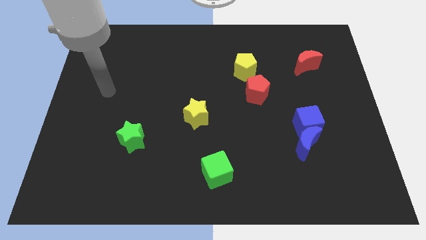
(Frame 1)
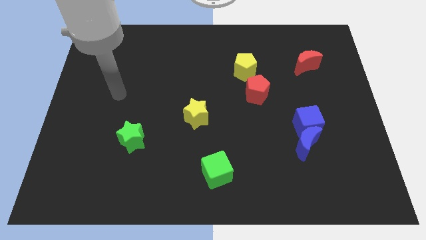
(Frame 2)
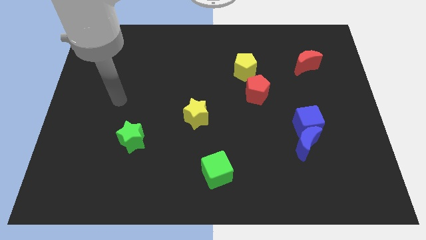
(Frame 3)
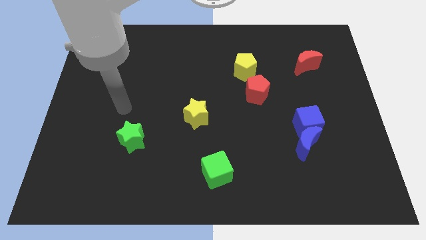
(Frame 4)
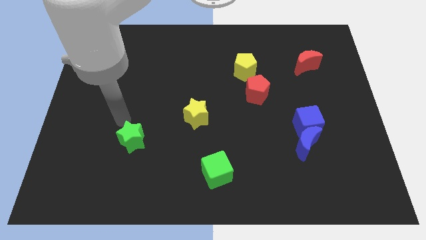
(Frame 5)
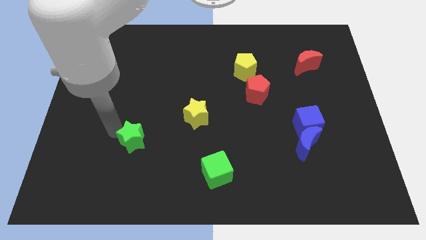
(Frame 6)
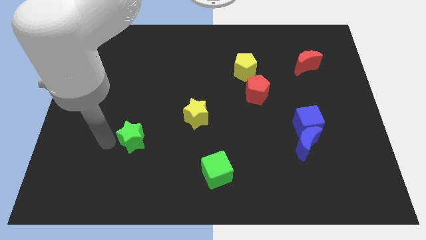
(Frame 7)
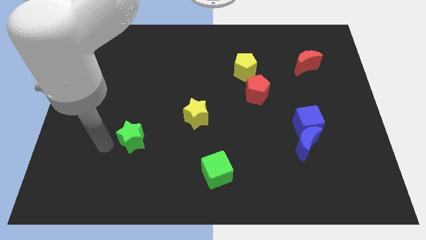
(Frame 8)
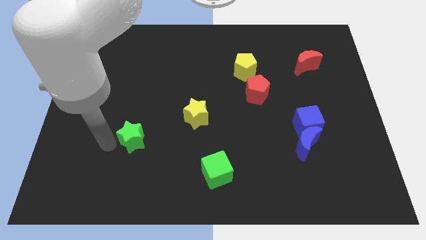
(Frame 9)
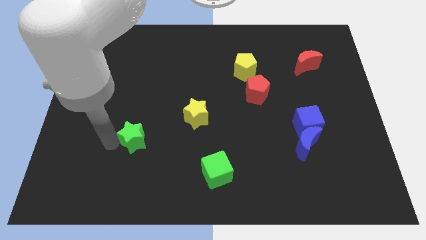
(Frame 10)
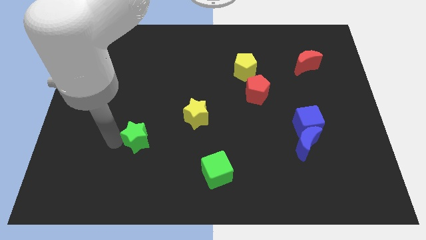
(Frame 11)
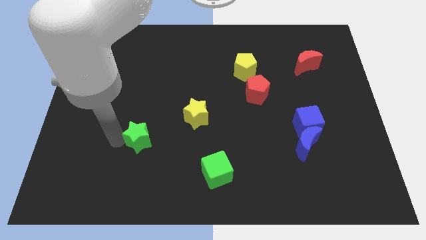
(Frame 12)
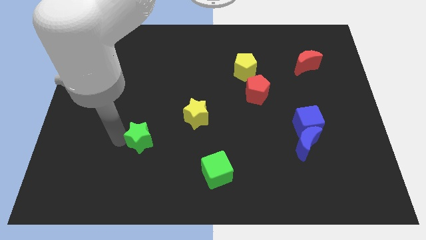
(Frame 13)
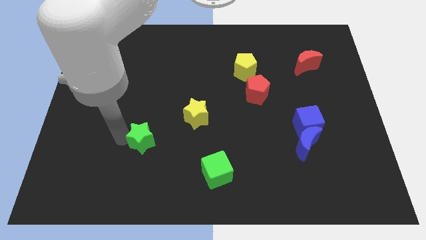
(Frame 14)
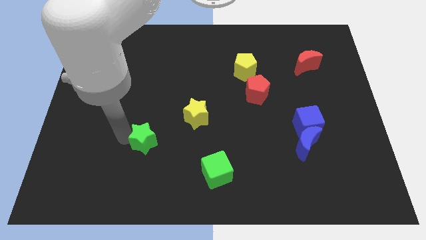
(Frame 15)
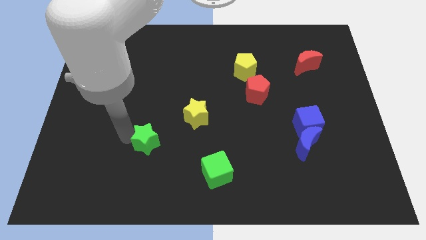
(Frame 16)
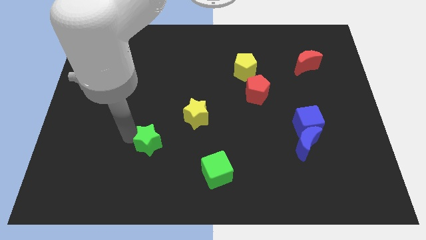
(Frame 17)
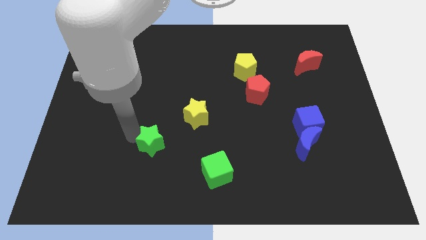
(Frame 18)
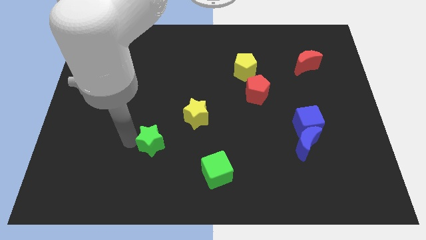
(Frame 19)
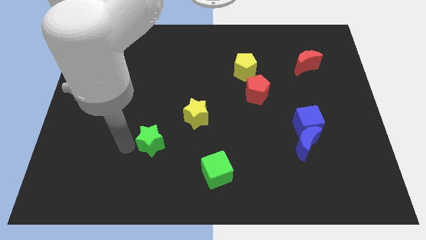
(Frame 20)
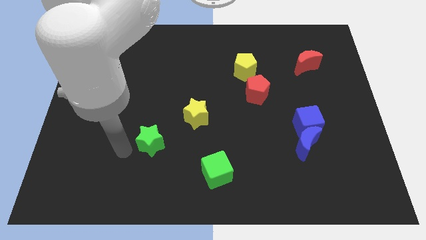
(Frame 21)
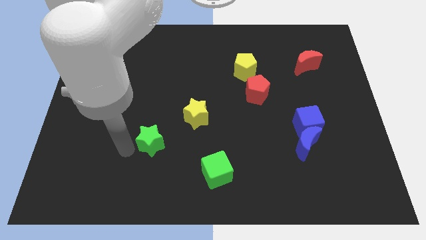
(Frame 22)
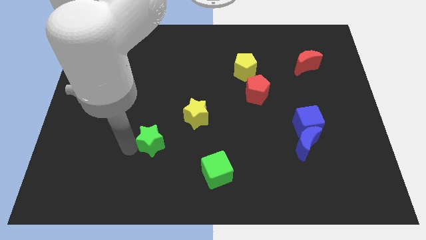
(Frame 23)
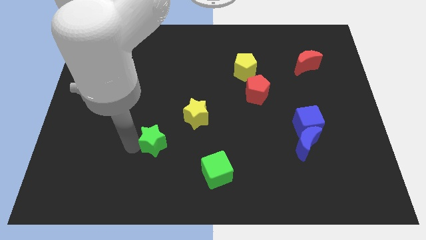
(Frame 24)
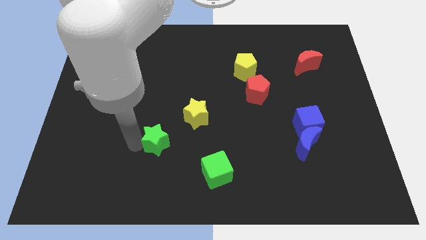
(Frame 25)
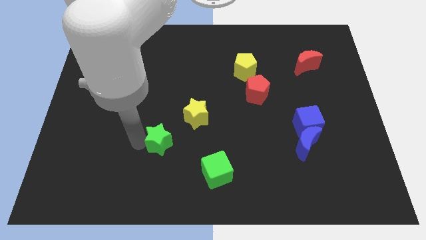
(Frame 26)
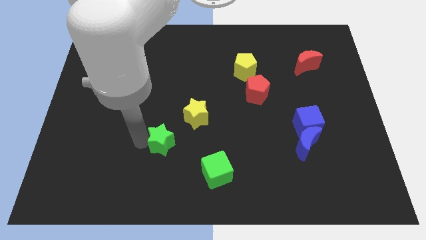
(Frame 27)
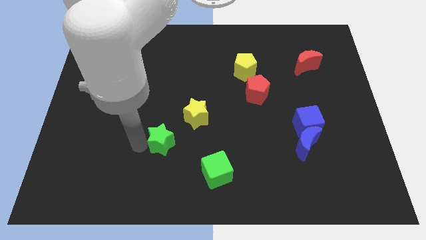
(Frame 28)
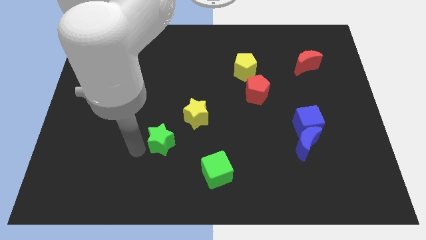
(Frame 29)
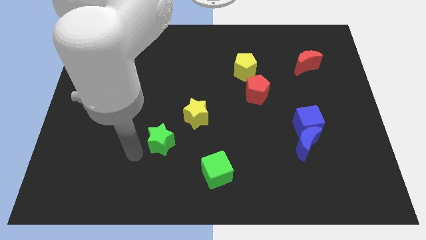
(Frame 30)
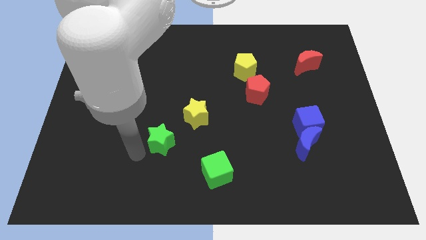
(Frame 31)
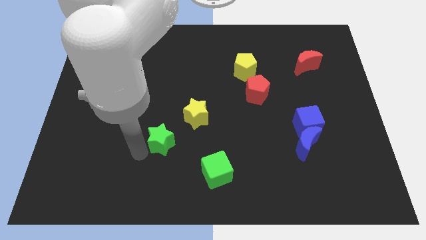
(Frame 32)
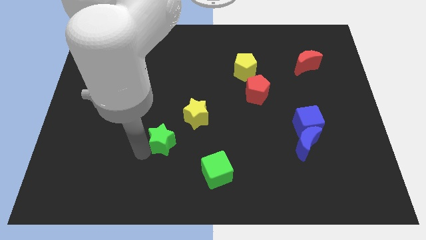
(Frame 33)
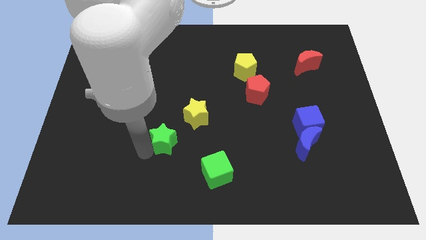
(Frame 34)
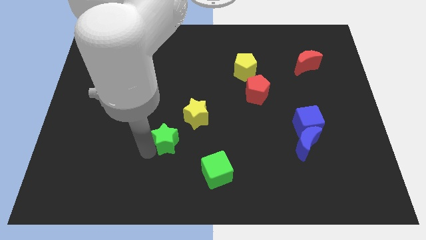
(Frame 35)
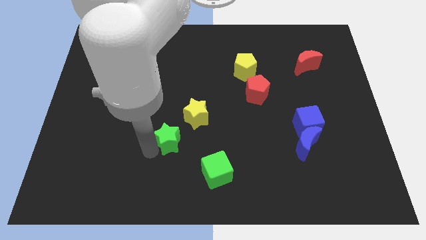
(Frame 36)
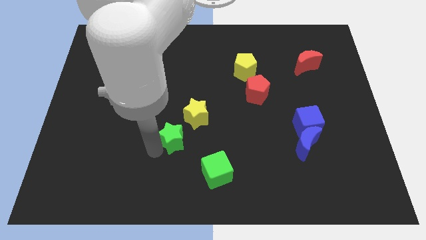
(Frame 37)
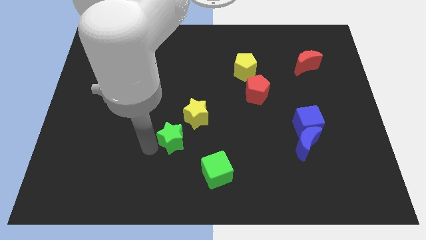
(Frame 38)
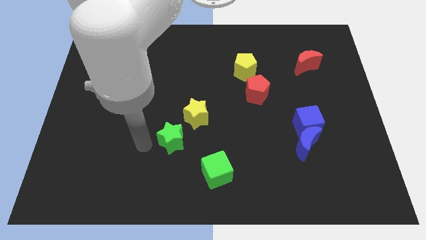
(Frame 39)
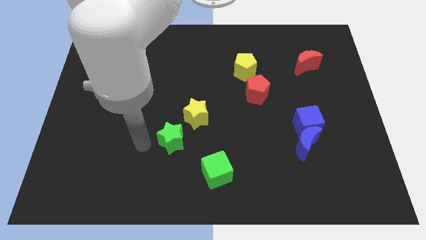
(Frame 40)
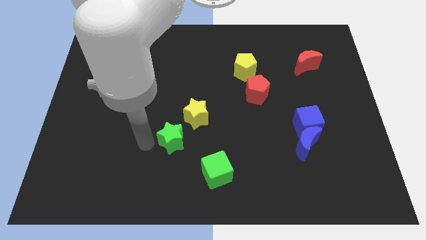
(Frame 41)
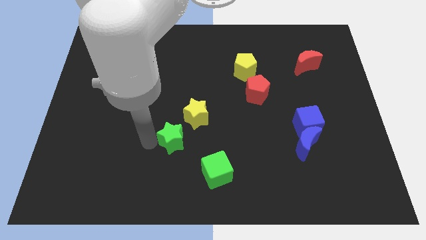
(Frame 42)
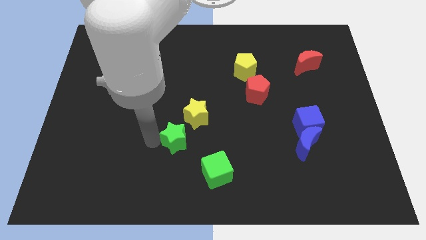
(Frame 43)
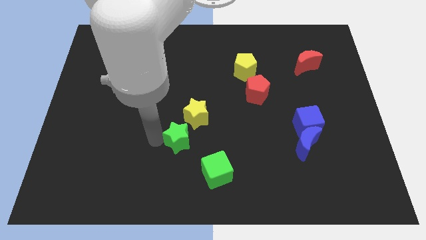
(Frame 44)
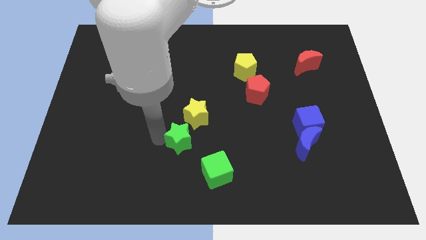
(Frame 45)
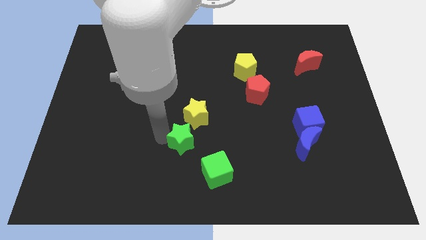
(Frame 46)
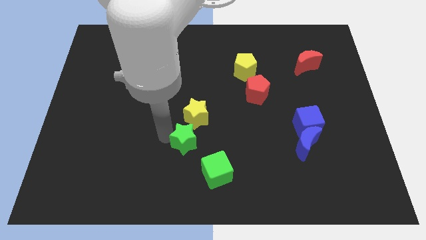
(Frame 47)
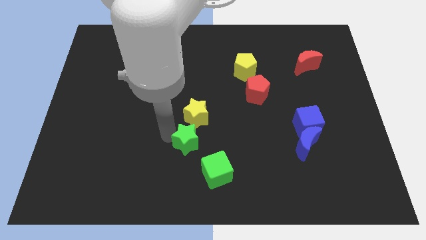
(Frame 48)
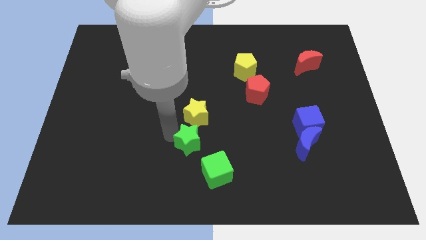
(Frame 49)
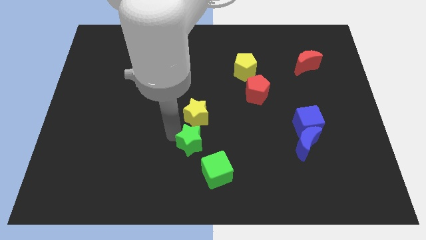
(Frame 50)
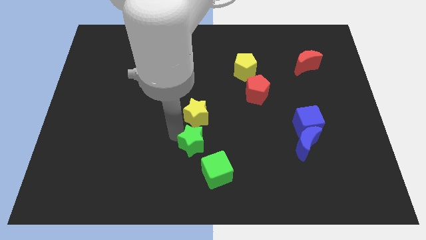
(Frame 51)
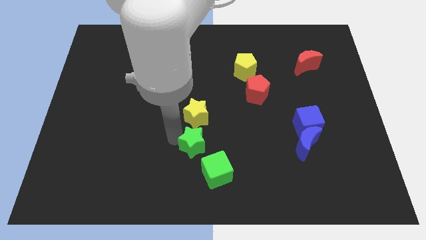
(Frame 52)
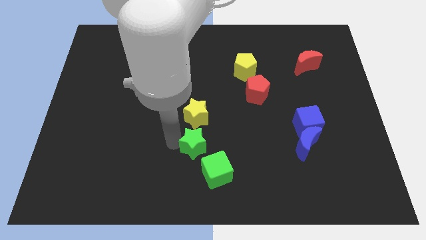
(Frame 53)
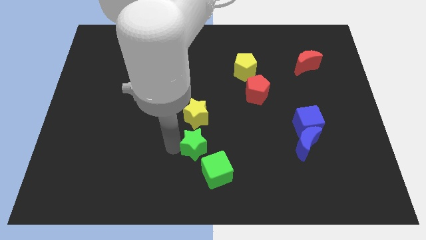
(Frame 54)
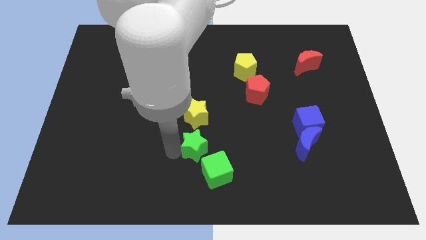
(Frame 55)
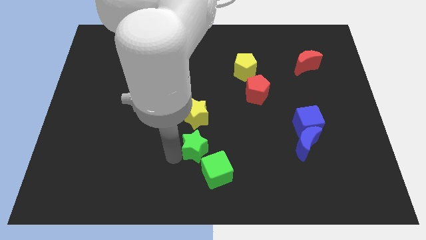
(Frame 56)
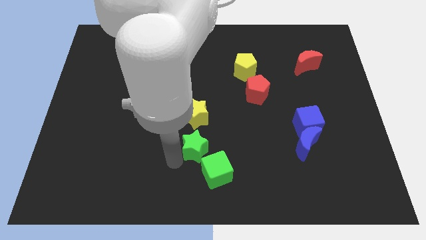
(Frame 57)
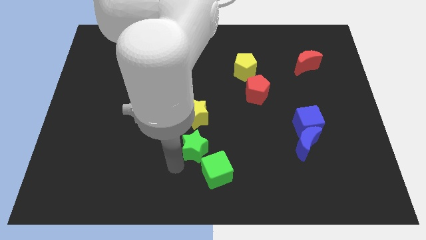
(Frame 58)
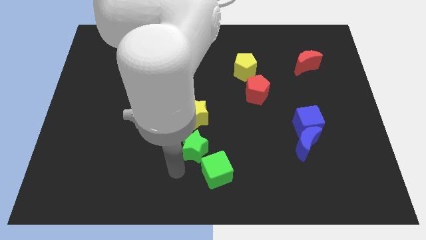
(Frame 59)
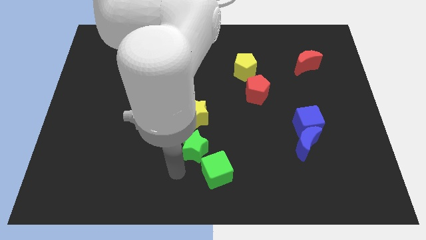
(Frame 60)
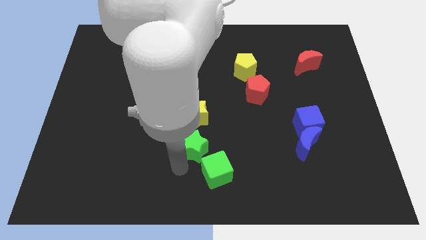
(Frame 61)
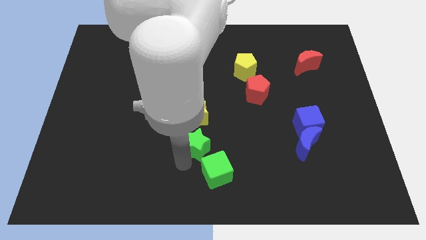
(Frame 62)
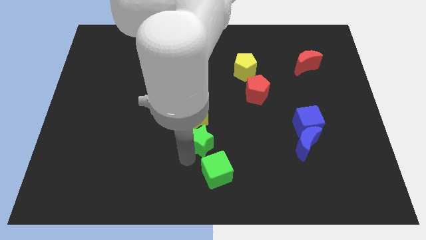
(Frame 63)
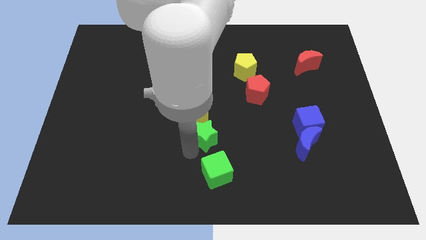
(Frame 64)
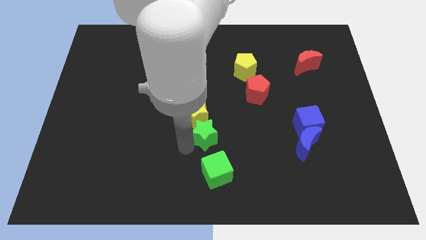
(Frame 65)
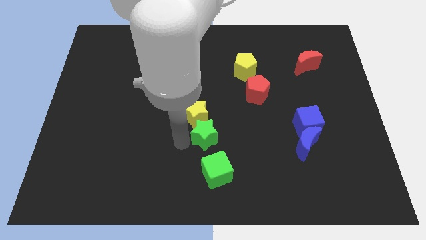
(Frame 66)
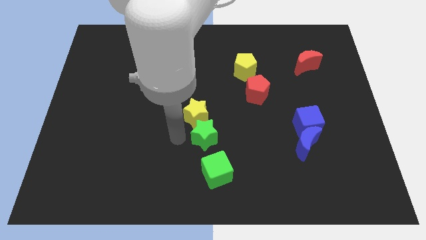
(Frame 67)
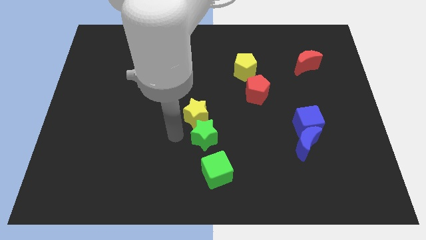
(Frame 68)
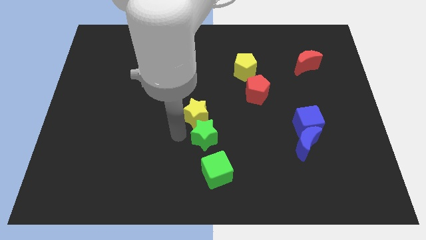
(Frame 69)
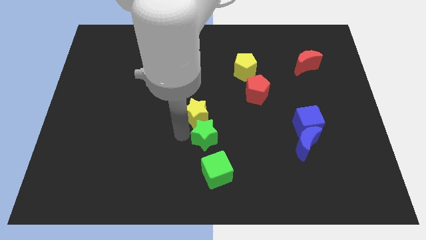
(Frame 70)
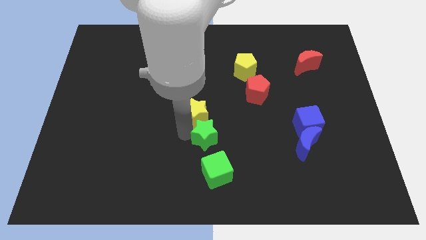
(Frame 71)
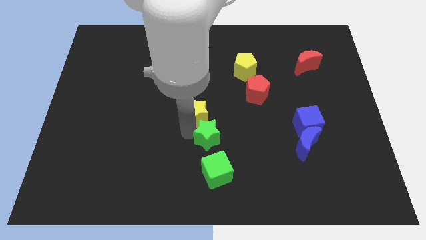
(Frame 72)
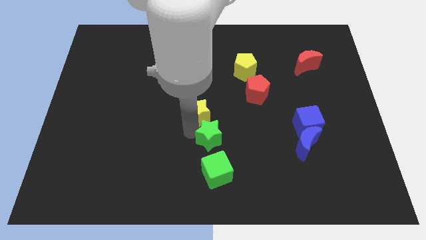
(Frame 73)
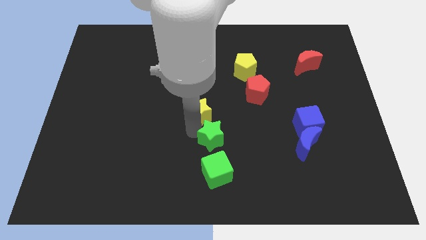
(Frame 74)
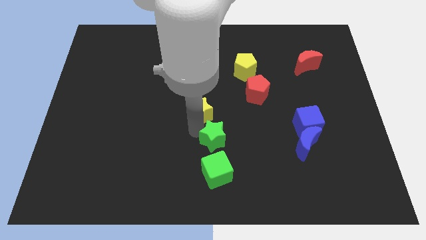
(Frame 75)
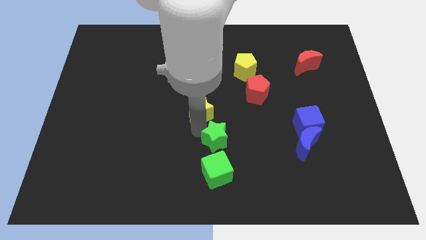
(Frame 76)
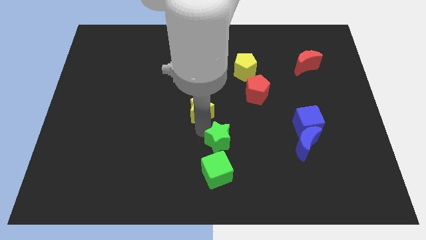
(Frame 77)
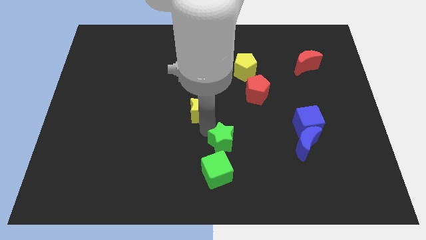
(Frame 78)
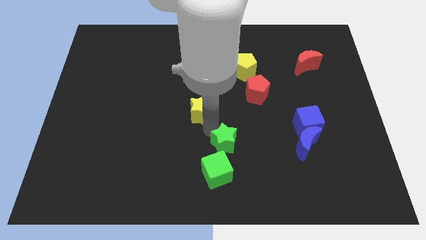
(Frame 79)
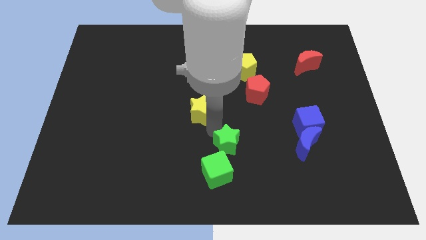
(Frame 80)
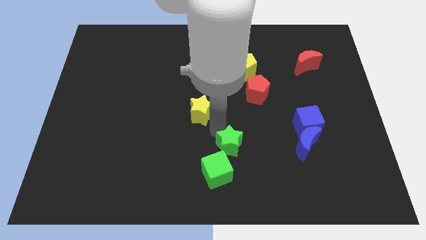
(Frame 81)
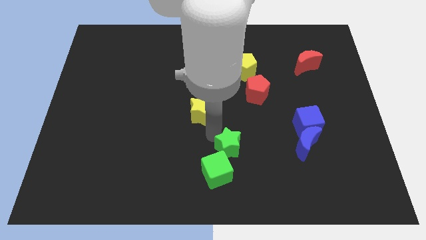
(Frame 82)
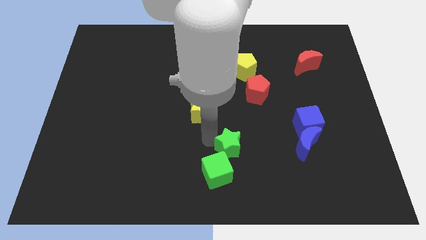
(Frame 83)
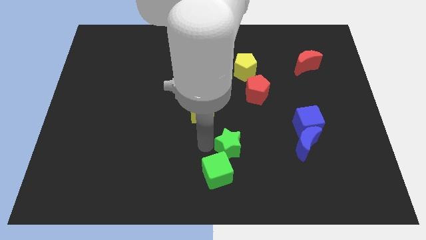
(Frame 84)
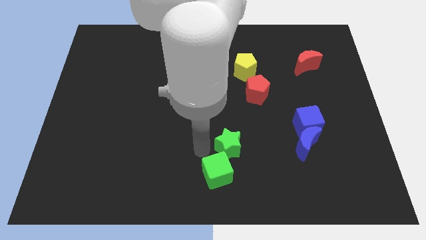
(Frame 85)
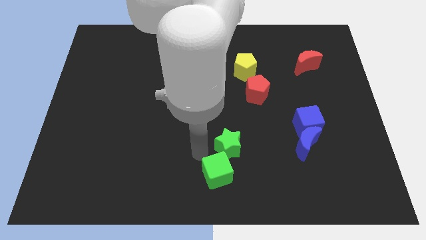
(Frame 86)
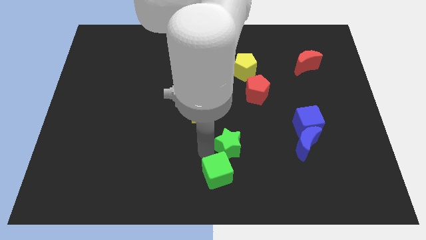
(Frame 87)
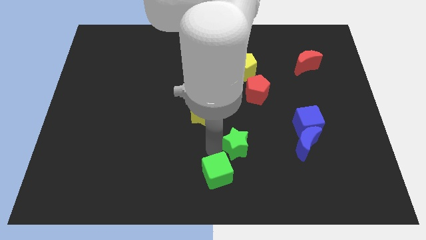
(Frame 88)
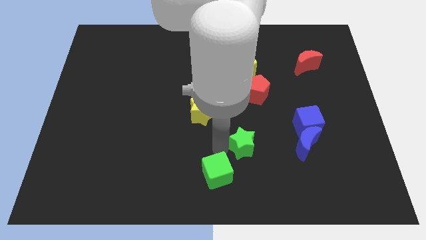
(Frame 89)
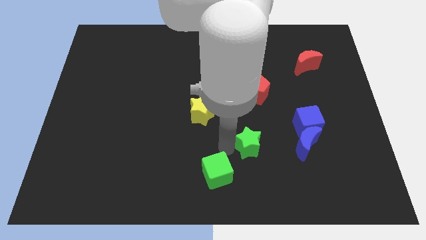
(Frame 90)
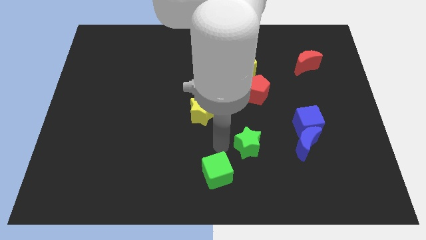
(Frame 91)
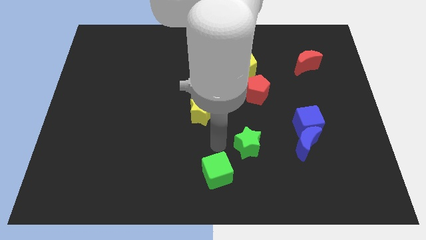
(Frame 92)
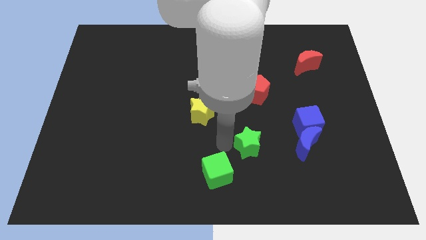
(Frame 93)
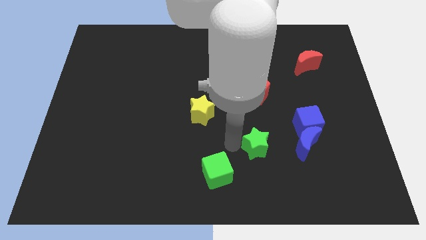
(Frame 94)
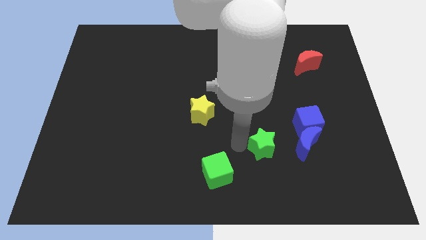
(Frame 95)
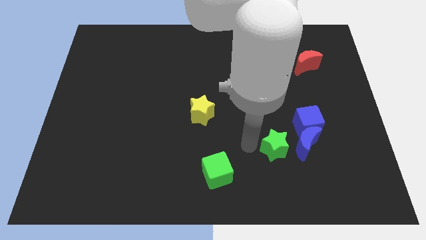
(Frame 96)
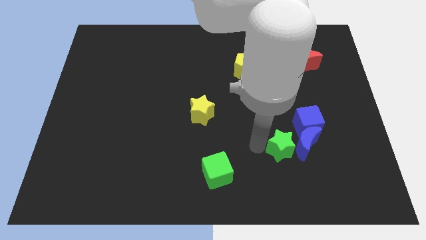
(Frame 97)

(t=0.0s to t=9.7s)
slide the green star close to the blue moon
